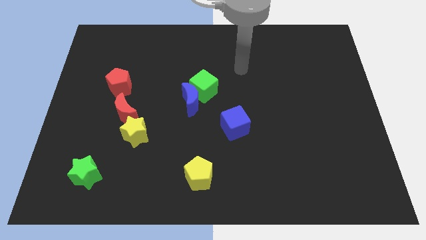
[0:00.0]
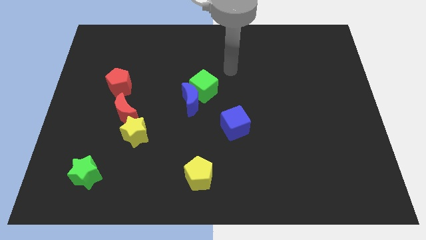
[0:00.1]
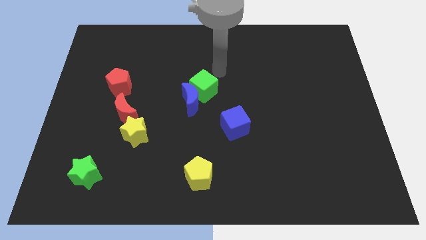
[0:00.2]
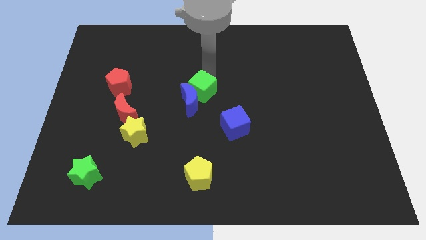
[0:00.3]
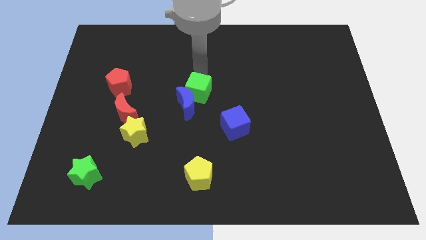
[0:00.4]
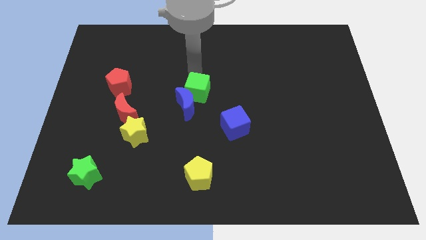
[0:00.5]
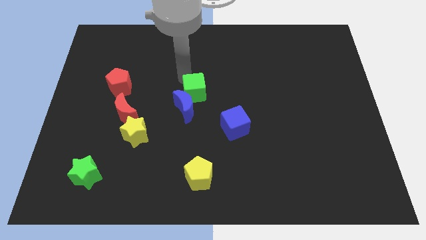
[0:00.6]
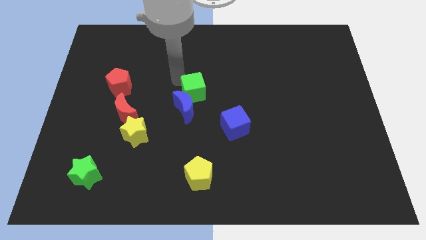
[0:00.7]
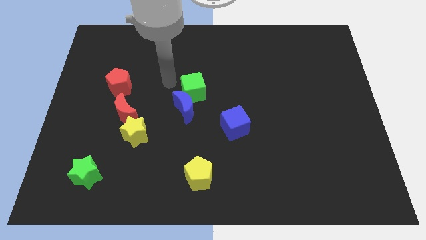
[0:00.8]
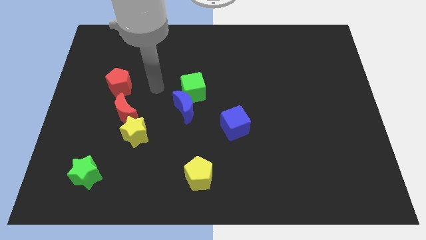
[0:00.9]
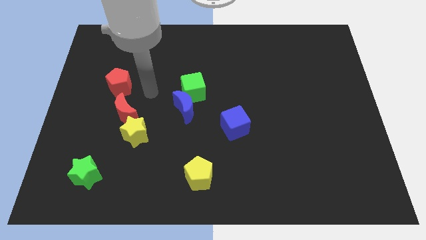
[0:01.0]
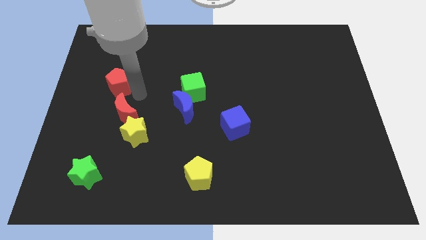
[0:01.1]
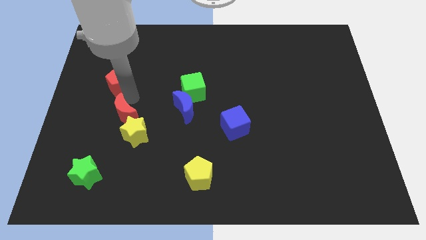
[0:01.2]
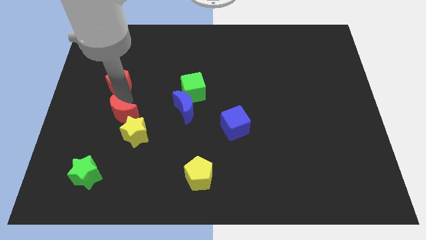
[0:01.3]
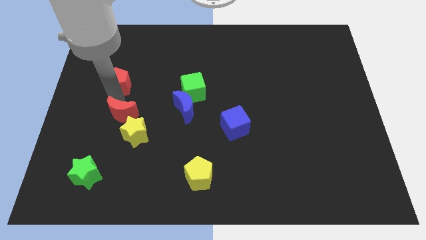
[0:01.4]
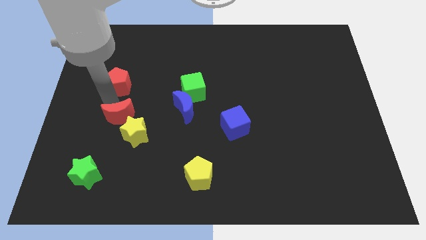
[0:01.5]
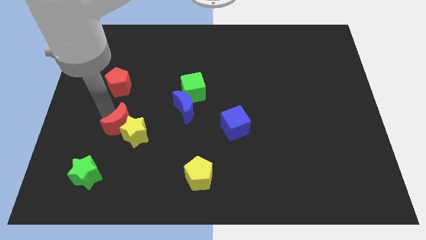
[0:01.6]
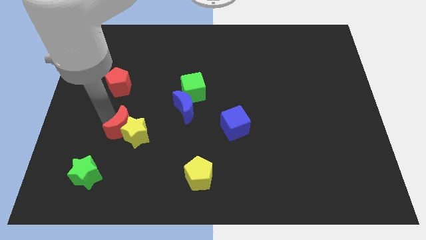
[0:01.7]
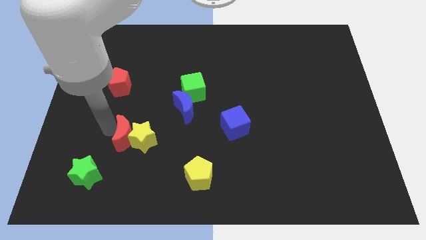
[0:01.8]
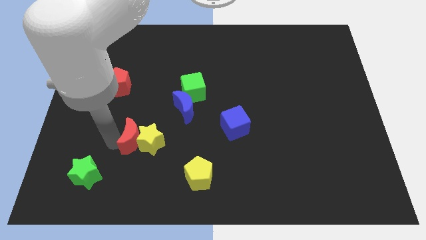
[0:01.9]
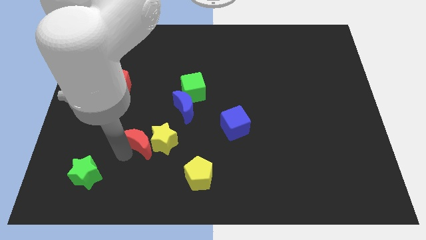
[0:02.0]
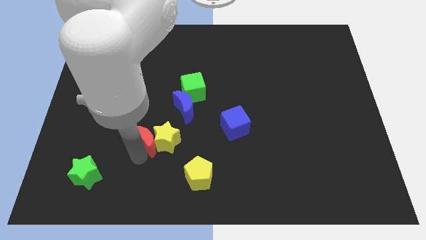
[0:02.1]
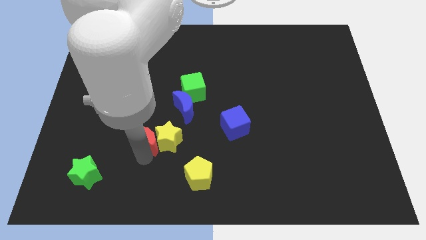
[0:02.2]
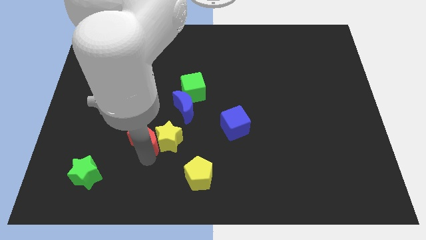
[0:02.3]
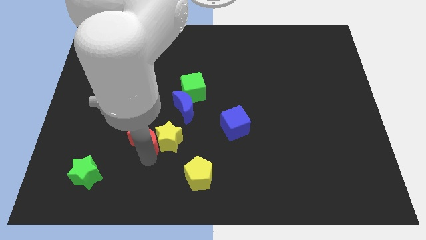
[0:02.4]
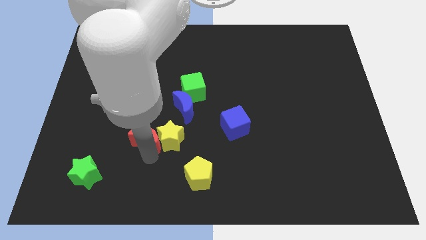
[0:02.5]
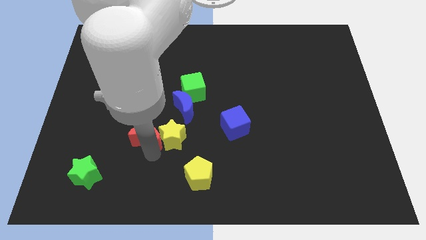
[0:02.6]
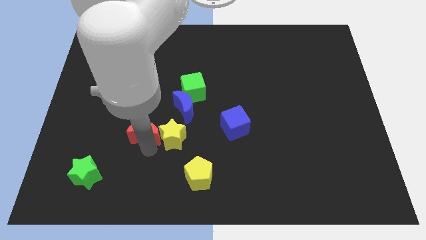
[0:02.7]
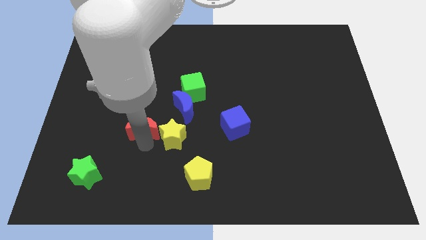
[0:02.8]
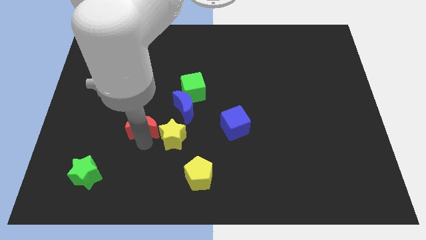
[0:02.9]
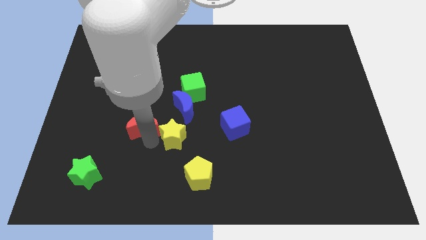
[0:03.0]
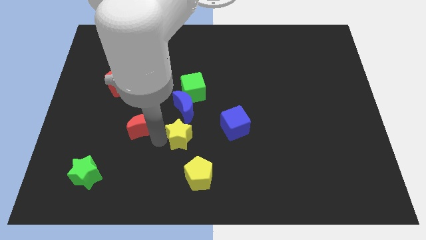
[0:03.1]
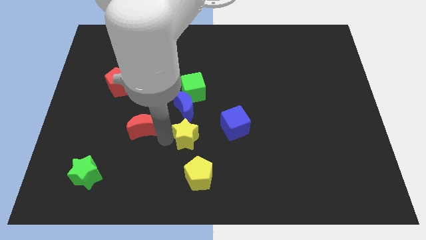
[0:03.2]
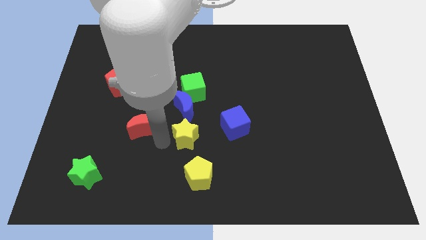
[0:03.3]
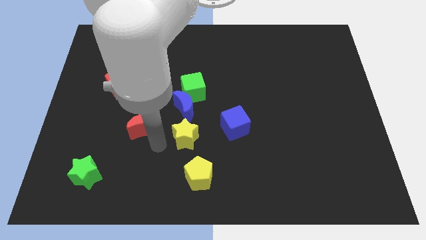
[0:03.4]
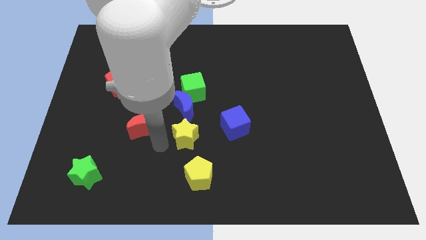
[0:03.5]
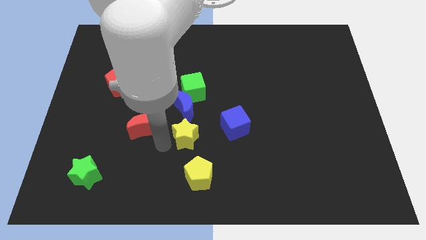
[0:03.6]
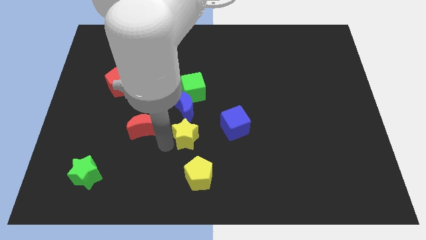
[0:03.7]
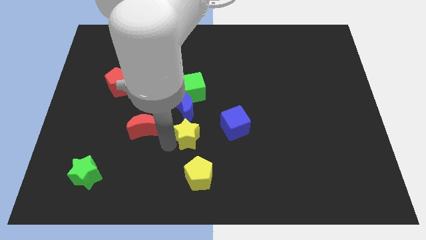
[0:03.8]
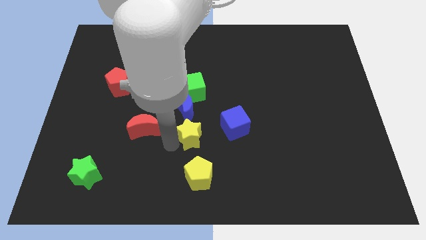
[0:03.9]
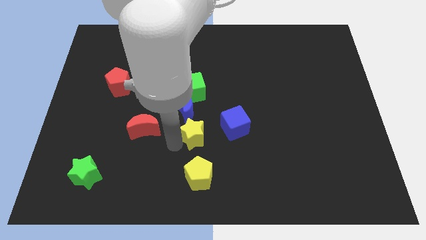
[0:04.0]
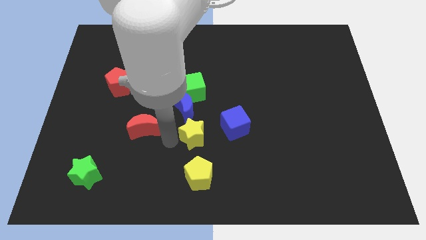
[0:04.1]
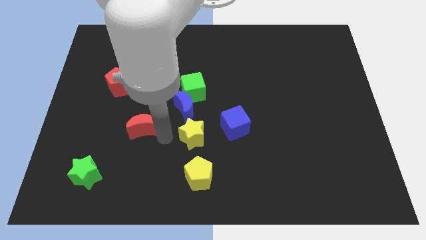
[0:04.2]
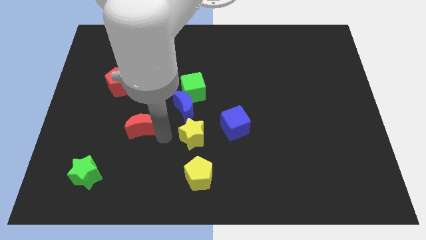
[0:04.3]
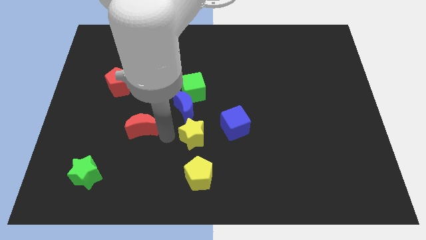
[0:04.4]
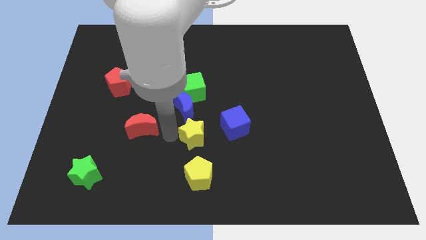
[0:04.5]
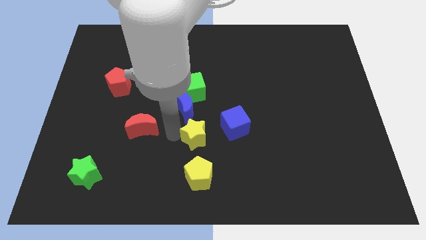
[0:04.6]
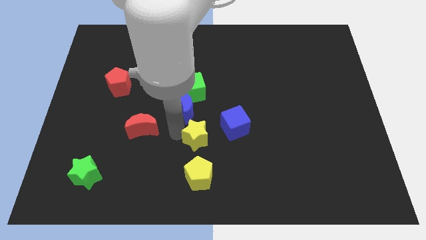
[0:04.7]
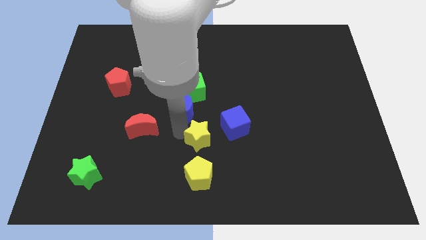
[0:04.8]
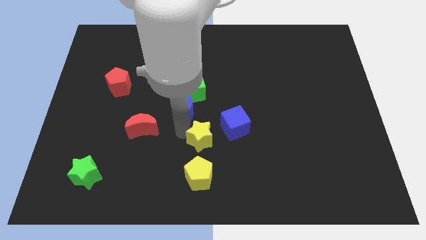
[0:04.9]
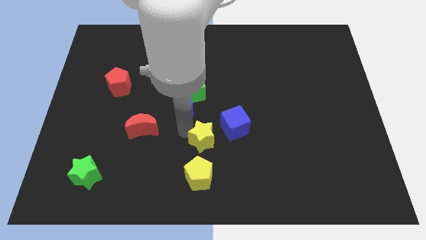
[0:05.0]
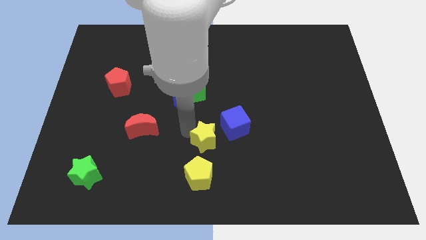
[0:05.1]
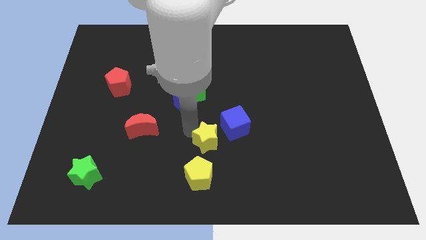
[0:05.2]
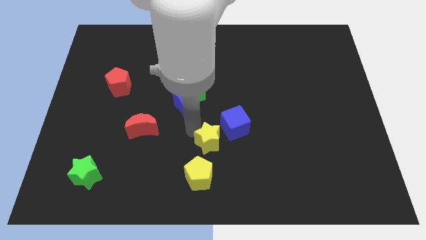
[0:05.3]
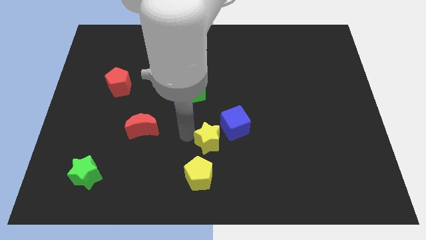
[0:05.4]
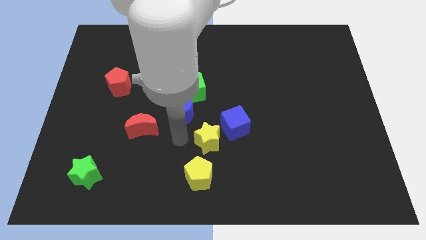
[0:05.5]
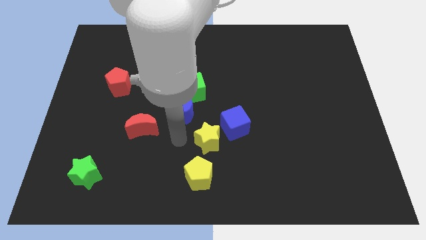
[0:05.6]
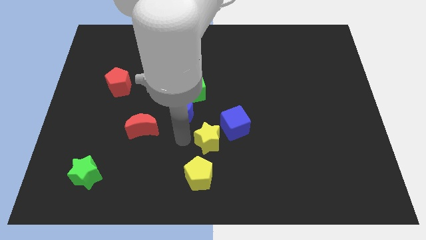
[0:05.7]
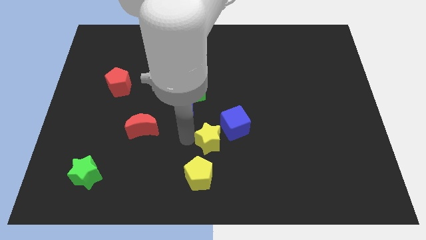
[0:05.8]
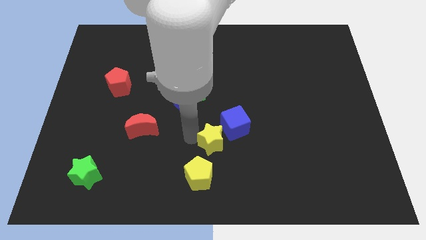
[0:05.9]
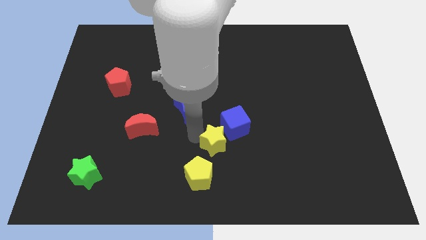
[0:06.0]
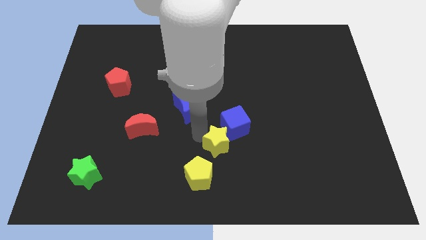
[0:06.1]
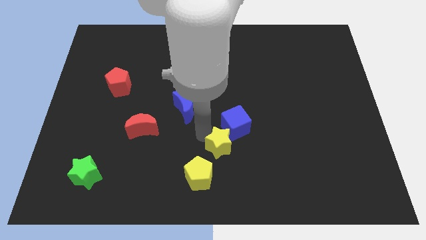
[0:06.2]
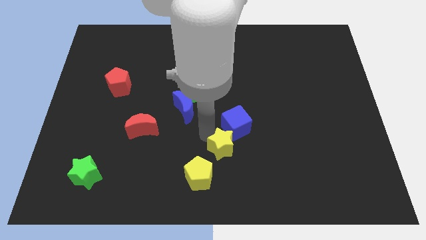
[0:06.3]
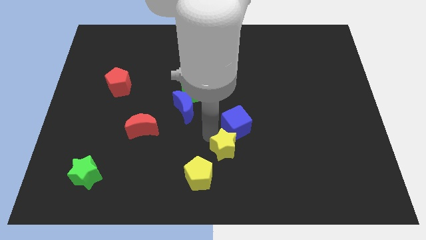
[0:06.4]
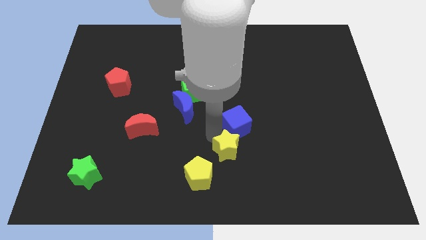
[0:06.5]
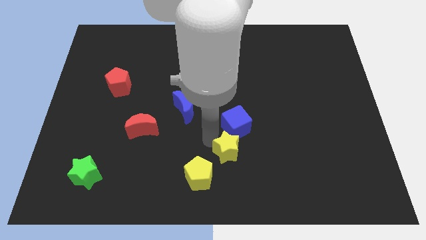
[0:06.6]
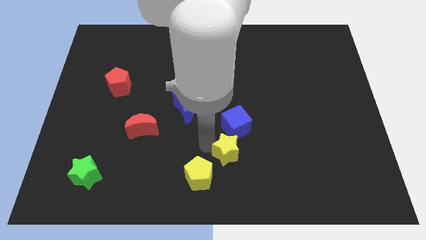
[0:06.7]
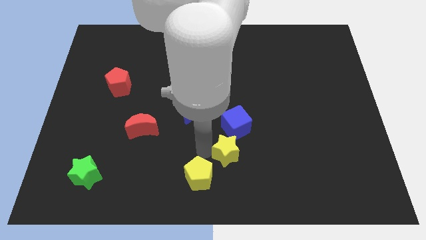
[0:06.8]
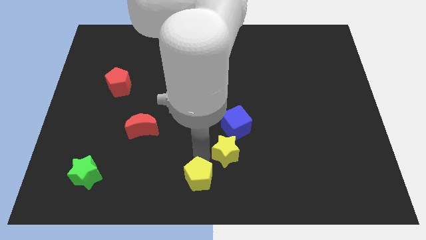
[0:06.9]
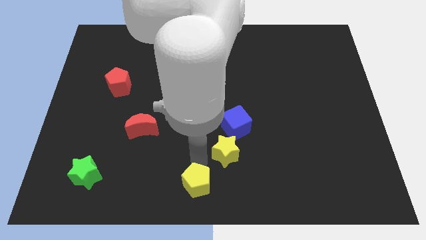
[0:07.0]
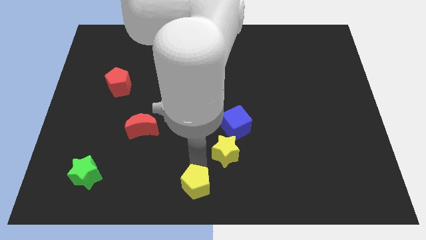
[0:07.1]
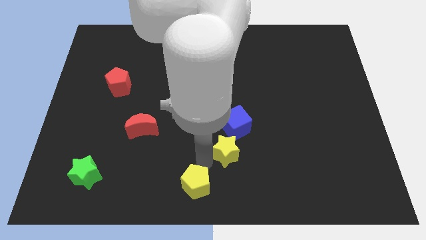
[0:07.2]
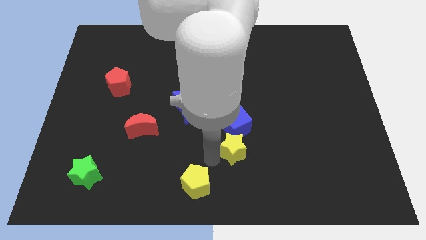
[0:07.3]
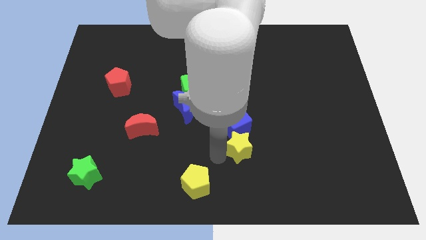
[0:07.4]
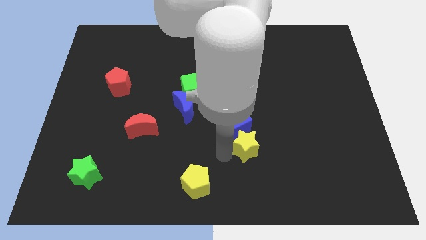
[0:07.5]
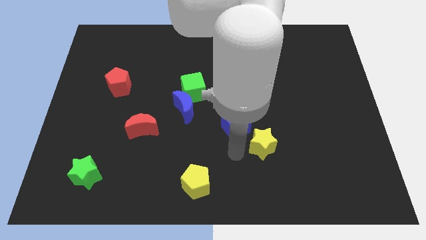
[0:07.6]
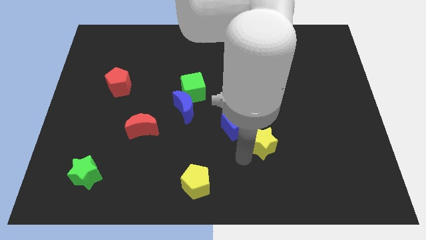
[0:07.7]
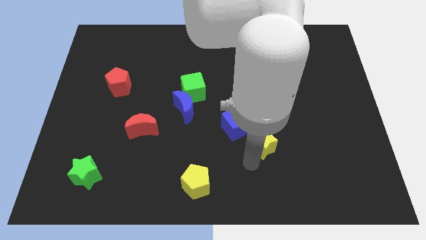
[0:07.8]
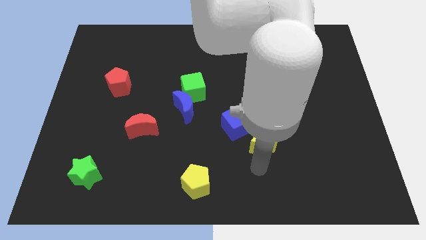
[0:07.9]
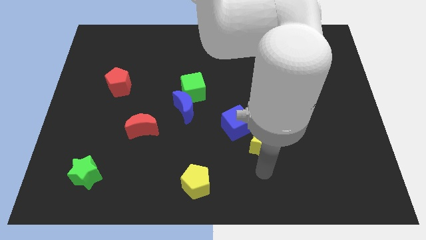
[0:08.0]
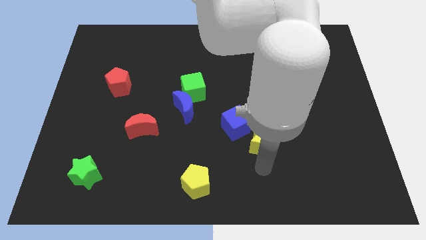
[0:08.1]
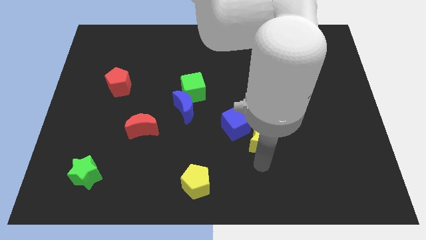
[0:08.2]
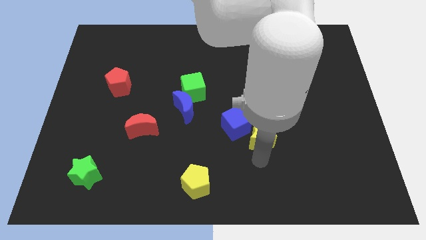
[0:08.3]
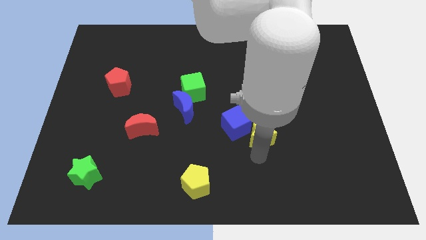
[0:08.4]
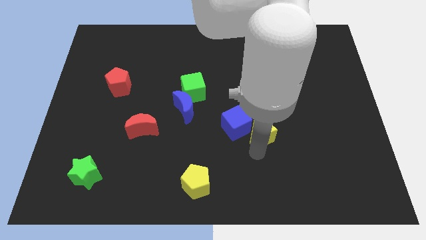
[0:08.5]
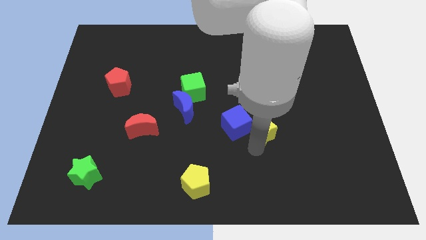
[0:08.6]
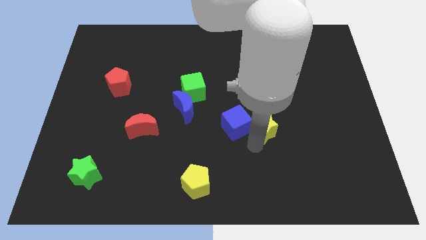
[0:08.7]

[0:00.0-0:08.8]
move the yellow star to the top right of the blue cube
